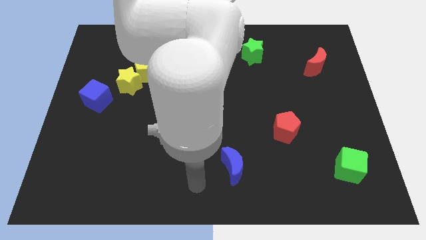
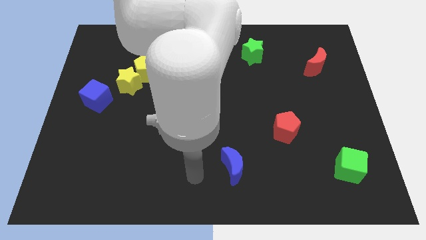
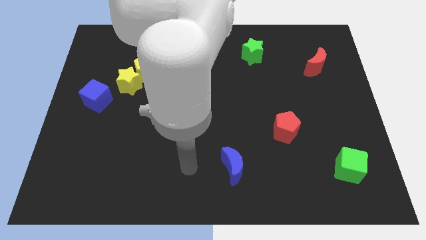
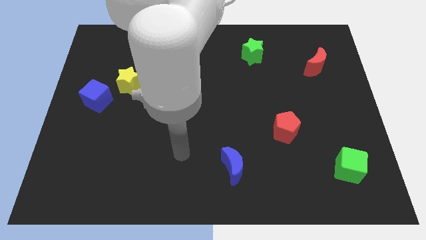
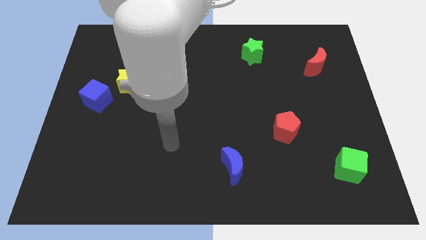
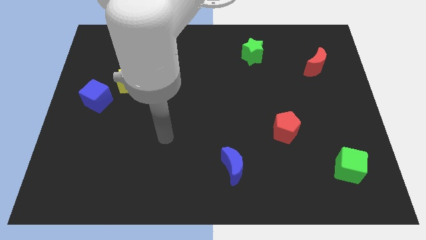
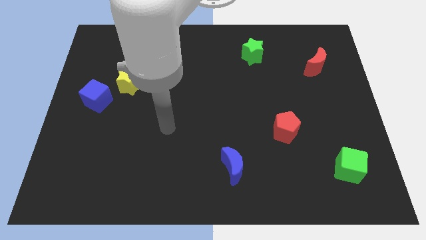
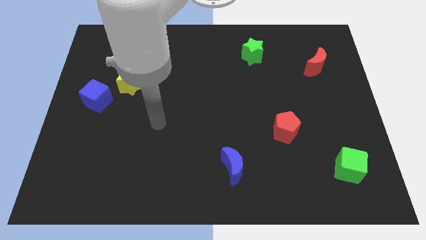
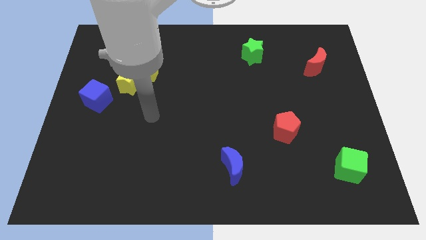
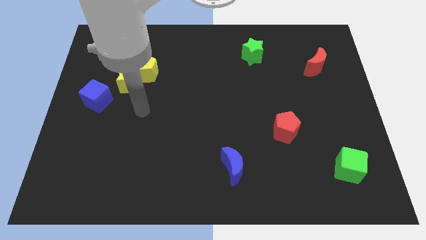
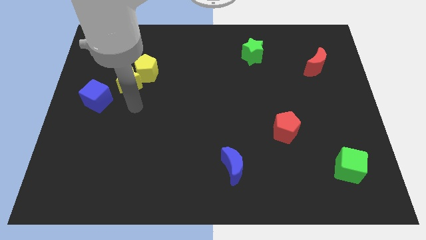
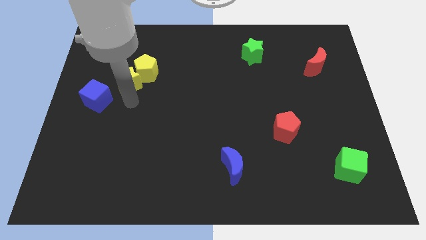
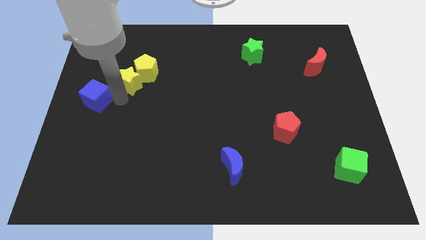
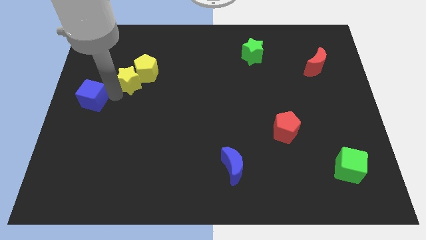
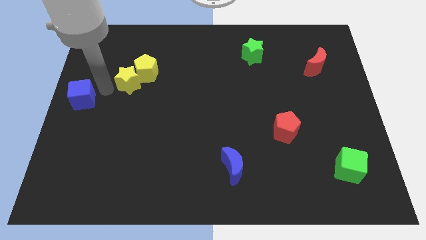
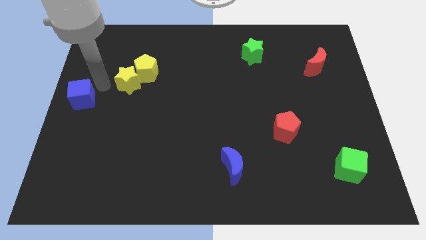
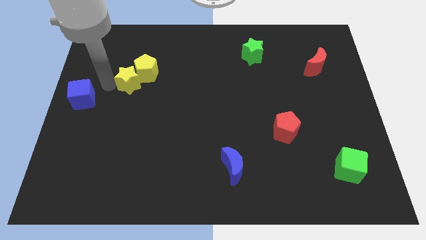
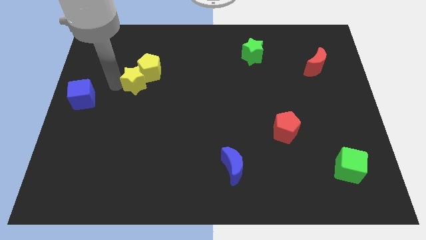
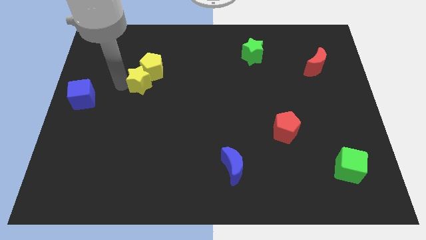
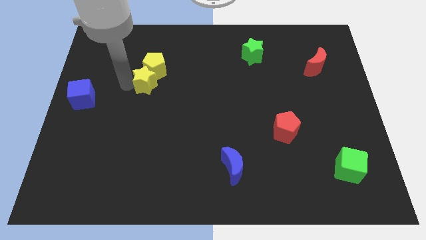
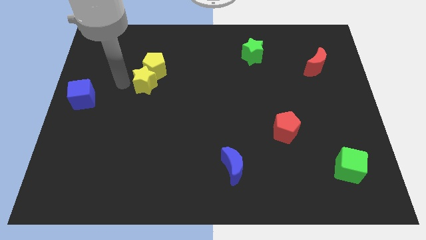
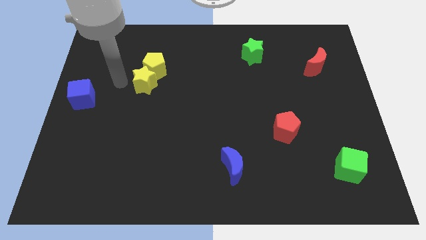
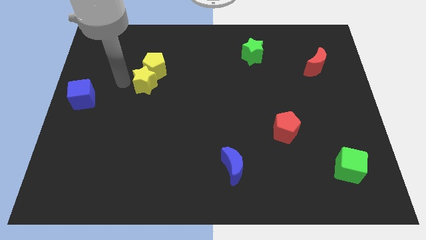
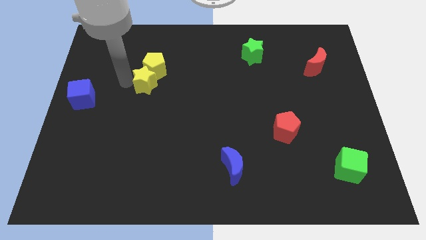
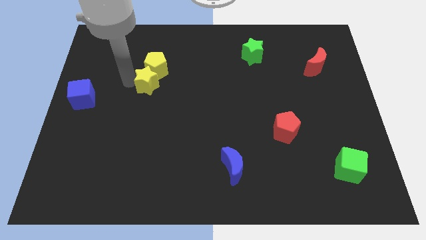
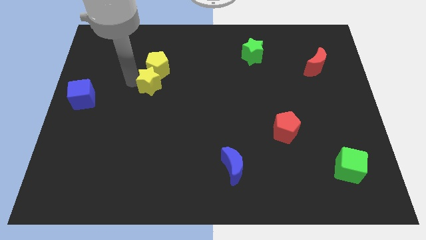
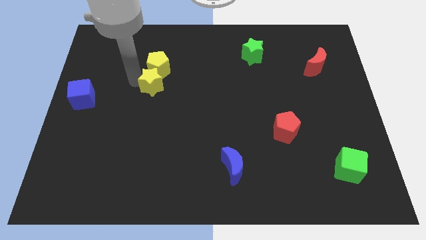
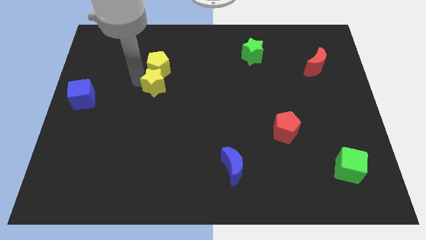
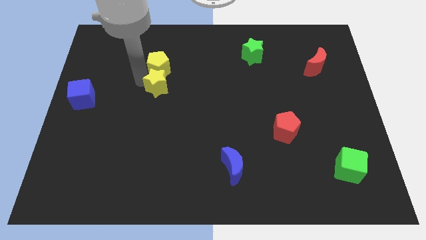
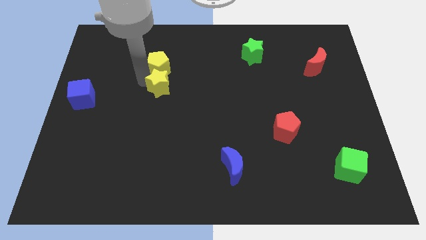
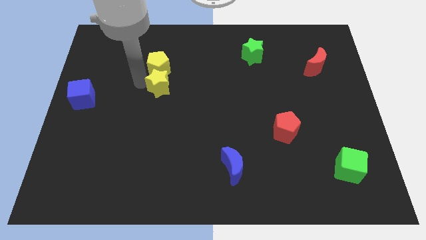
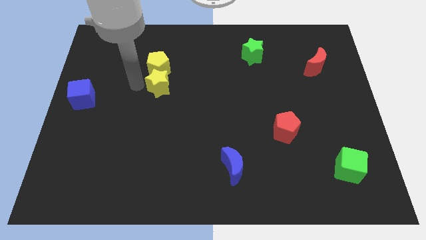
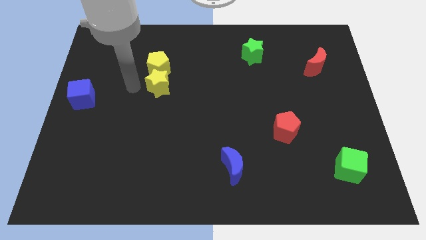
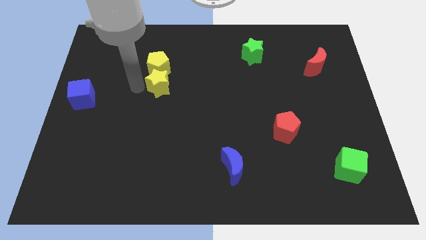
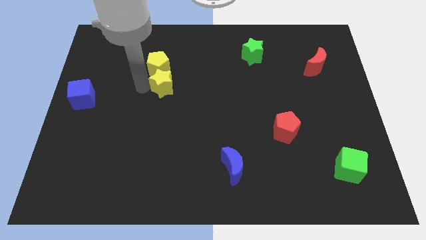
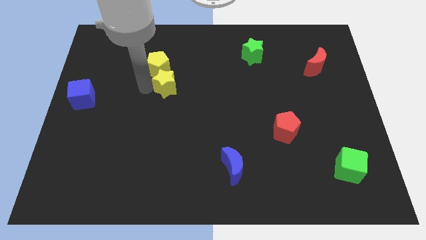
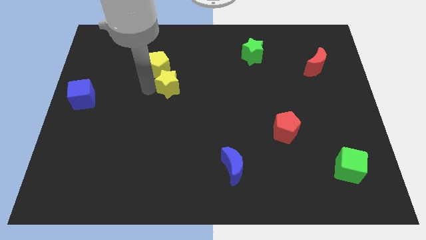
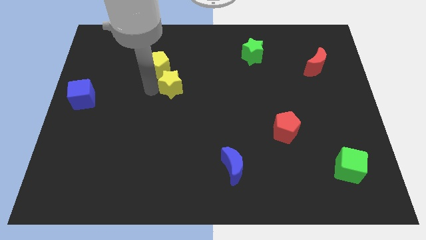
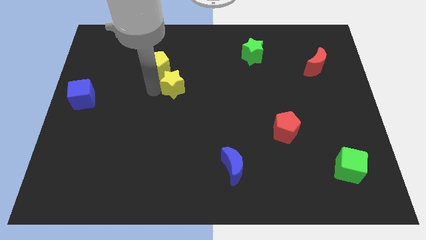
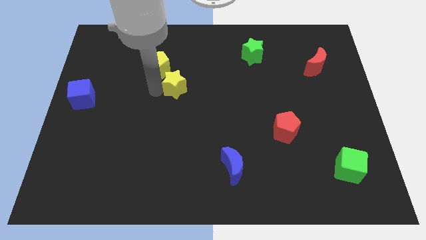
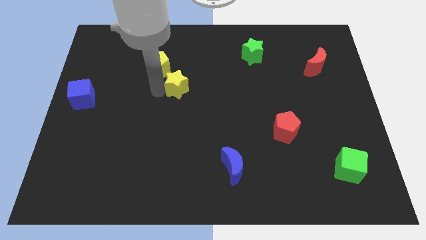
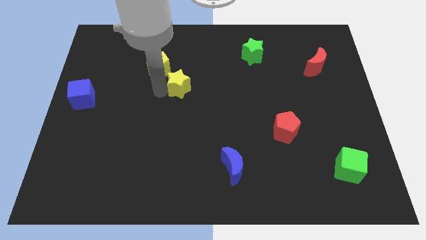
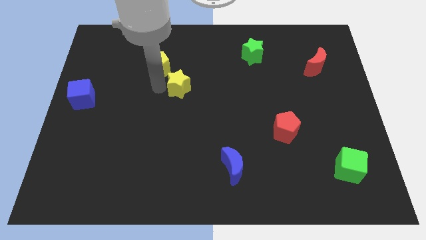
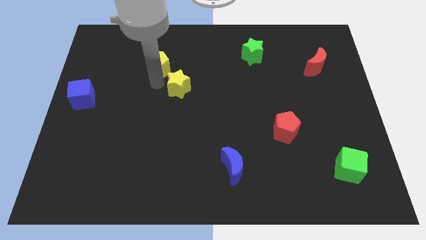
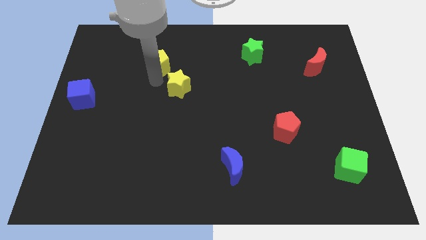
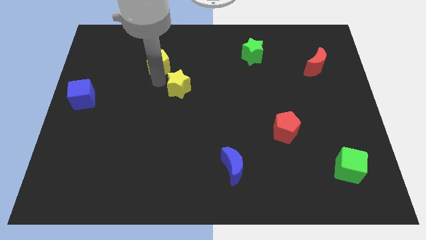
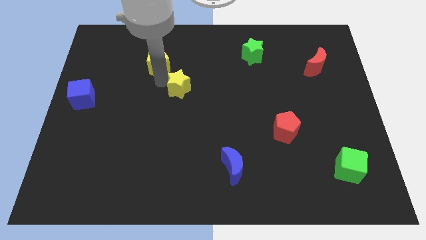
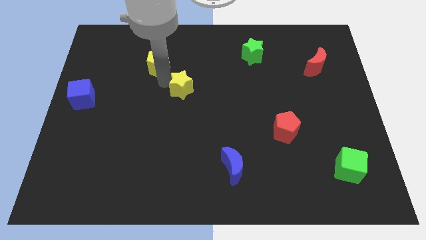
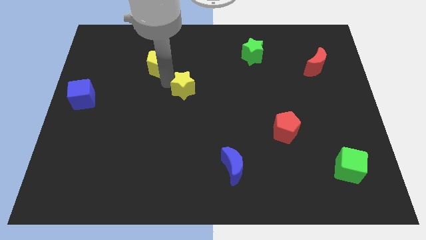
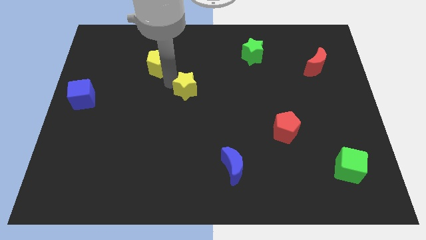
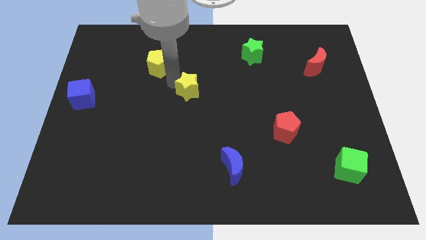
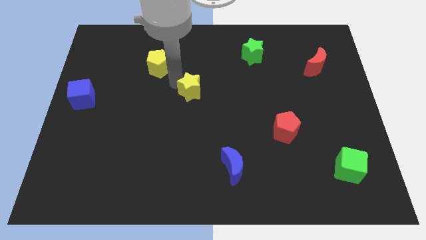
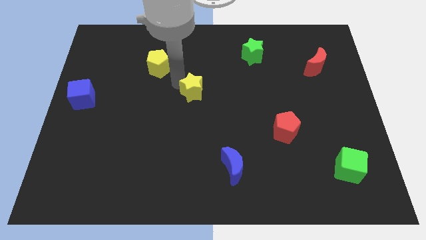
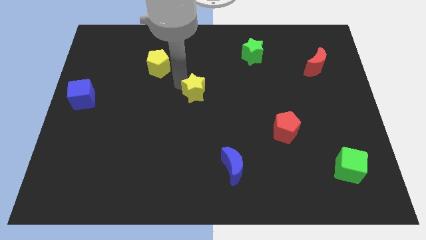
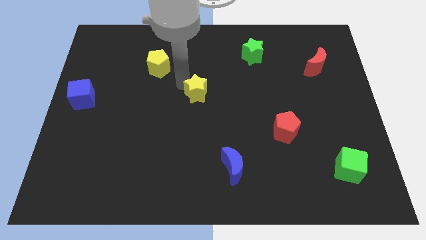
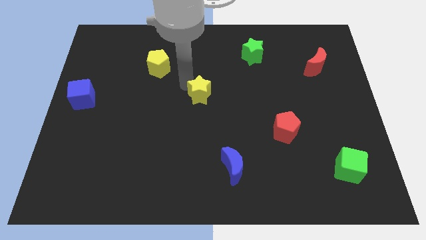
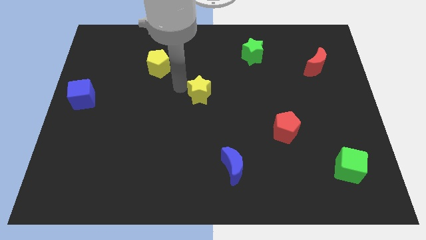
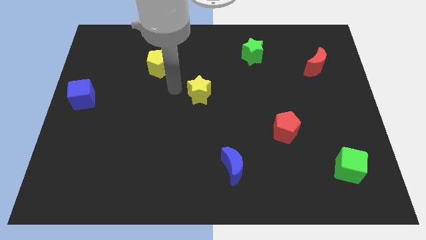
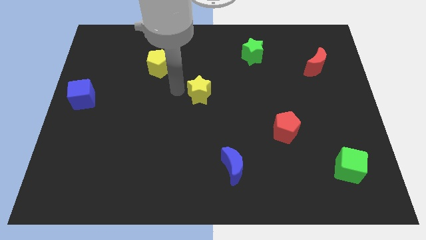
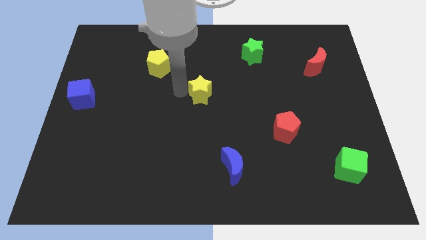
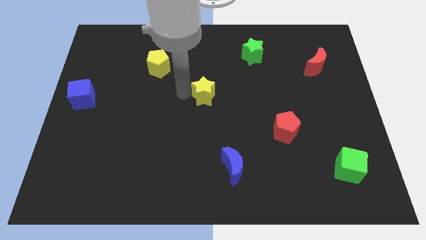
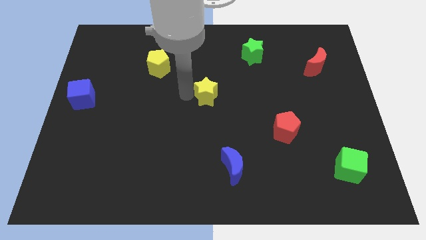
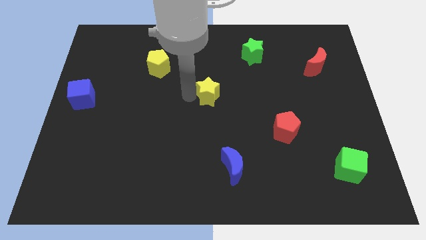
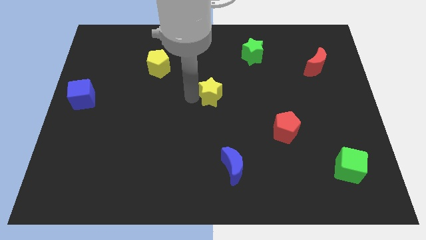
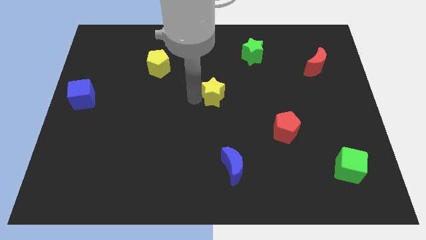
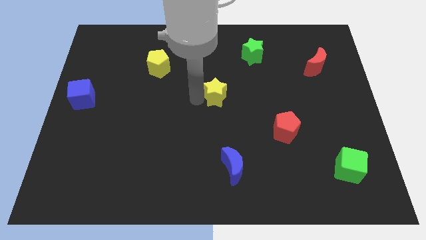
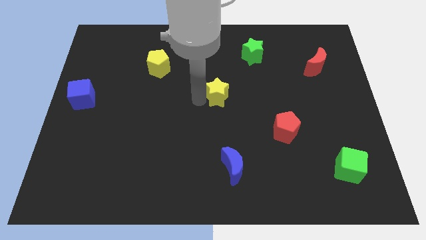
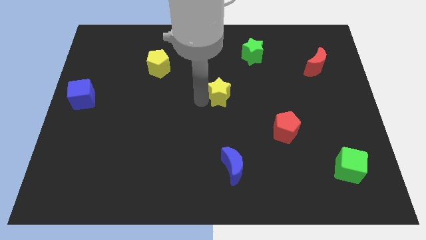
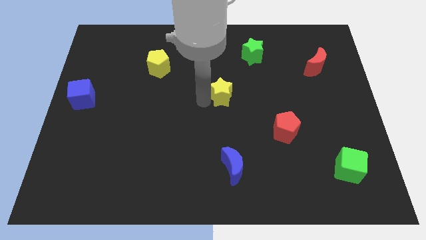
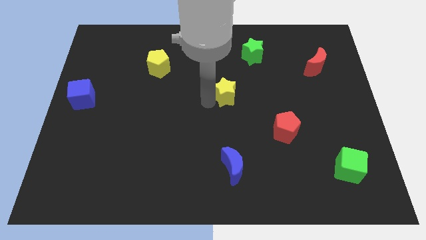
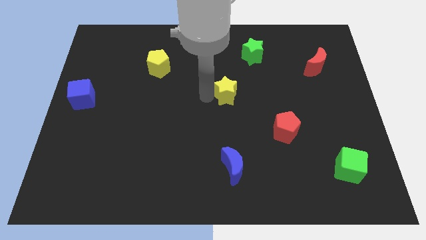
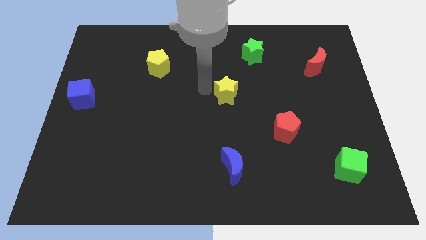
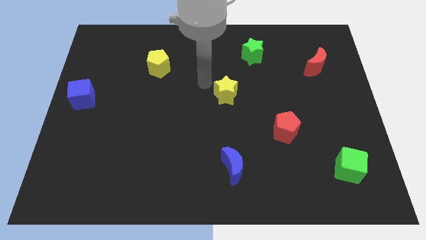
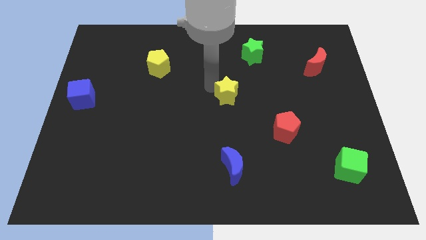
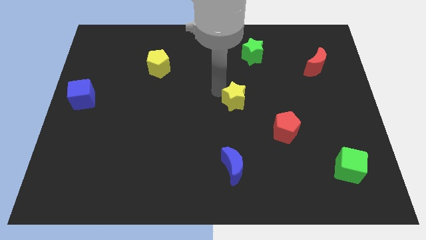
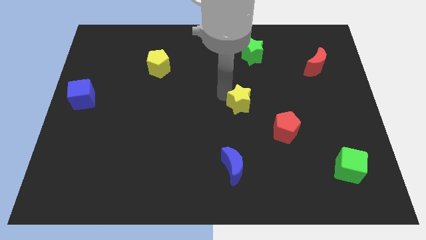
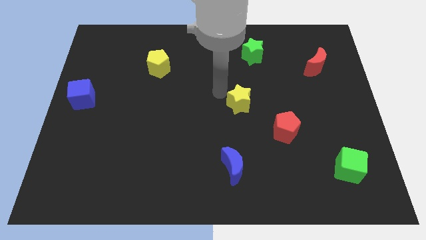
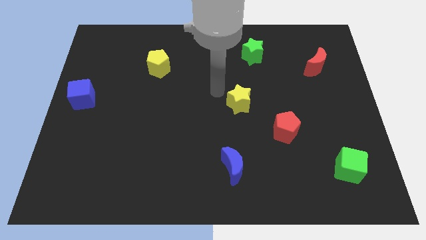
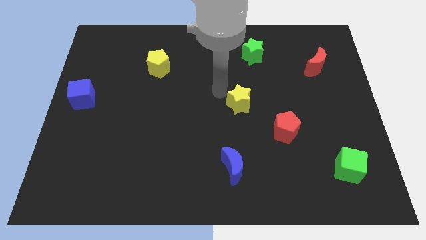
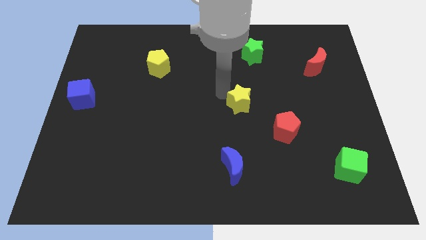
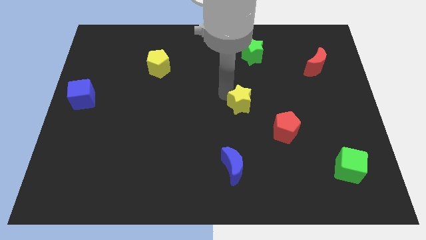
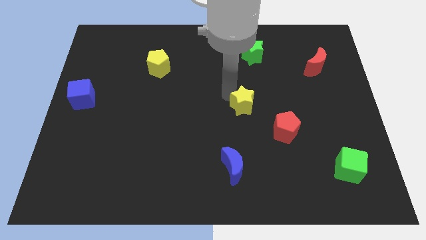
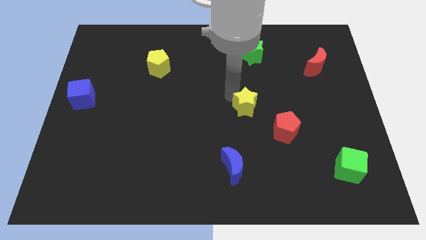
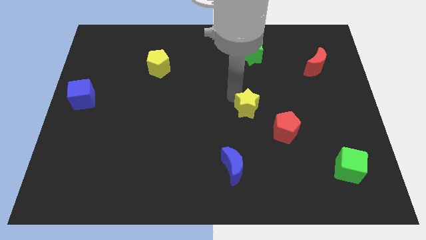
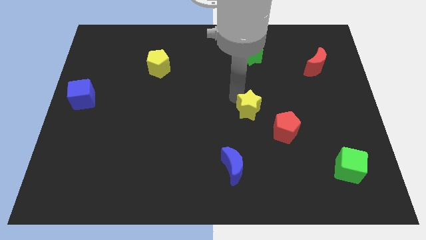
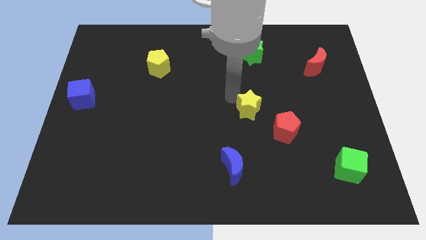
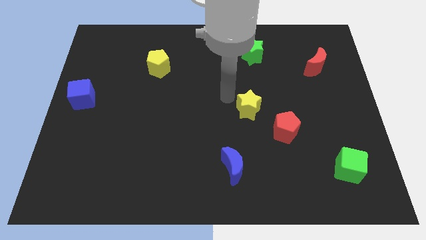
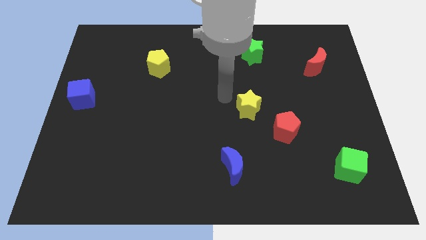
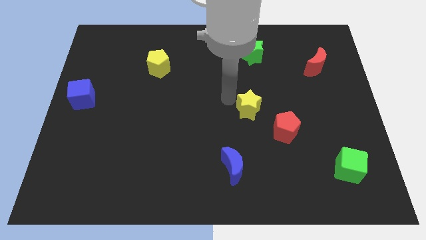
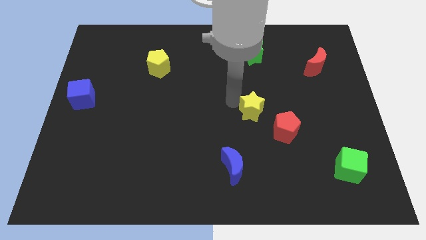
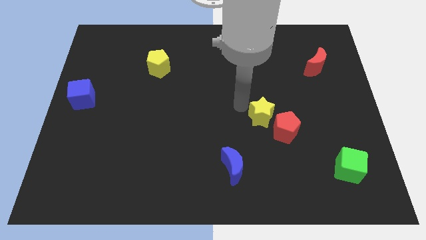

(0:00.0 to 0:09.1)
move the yellow star close to the red pentagon
